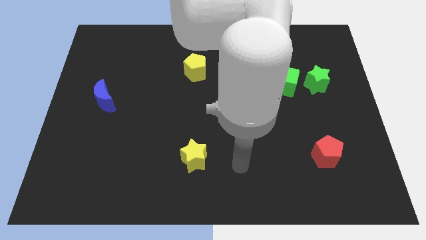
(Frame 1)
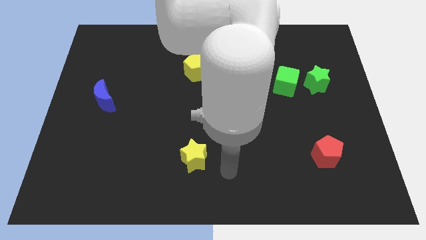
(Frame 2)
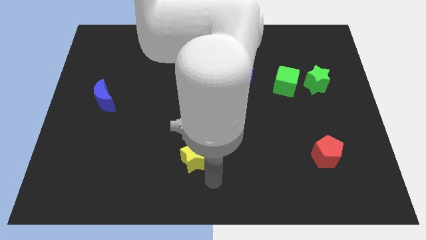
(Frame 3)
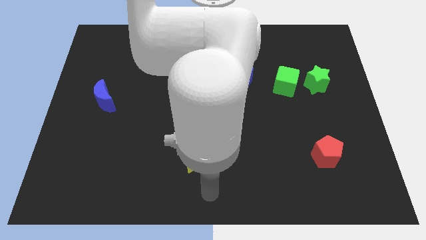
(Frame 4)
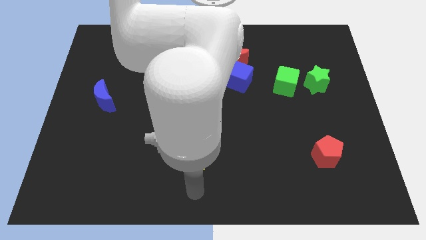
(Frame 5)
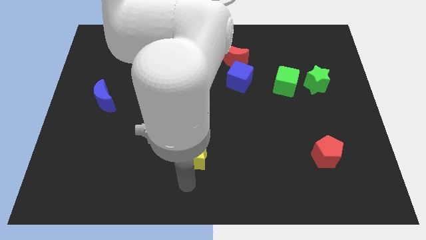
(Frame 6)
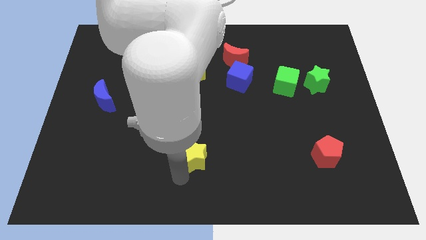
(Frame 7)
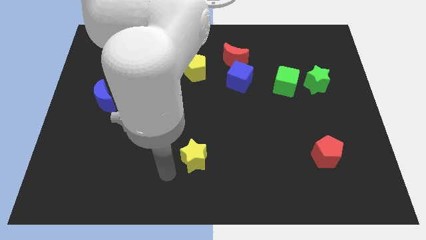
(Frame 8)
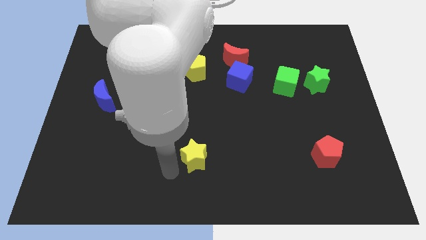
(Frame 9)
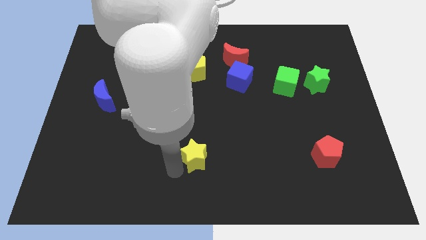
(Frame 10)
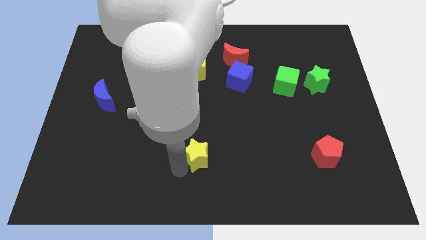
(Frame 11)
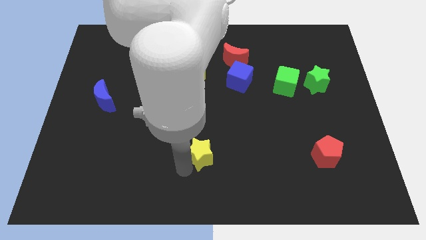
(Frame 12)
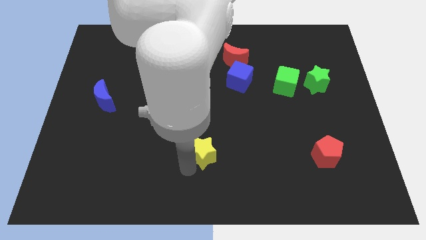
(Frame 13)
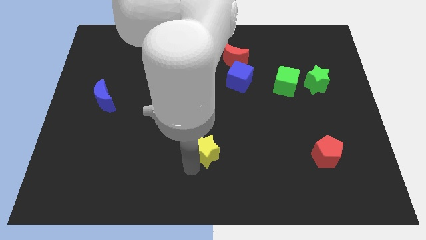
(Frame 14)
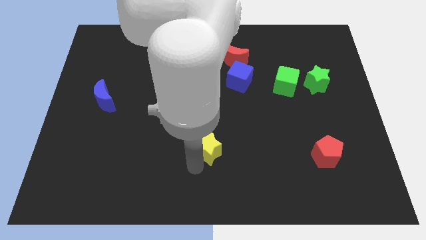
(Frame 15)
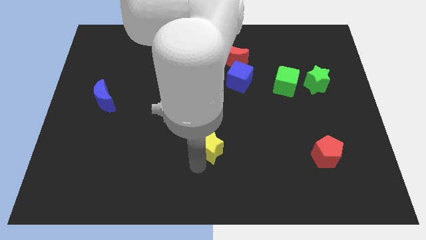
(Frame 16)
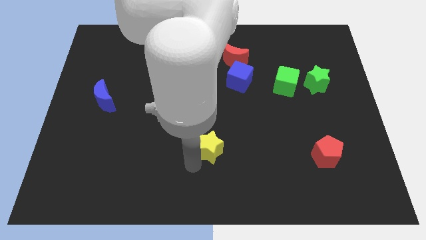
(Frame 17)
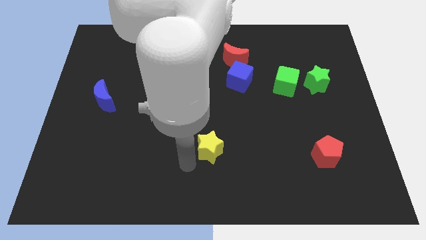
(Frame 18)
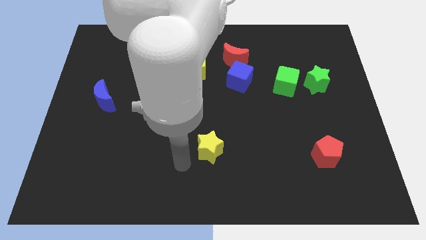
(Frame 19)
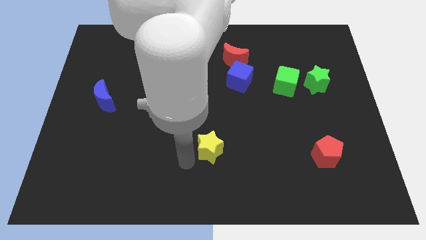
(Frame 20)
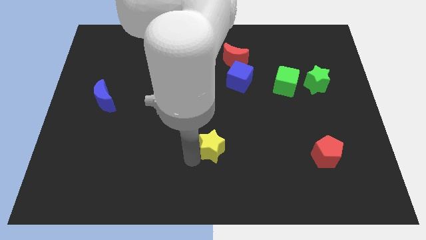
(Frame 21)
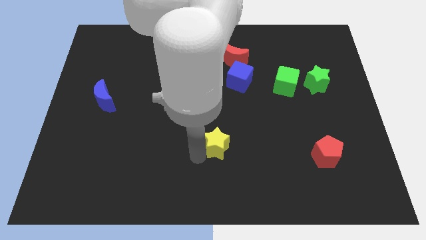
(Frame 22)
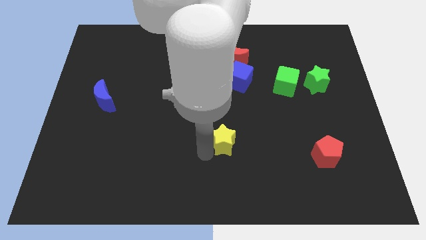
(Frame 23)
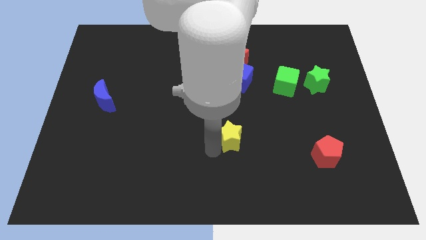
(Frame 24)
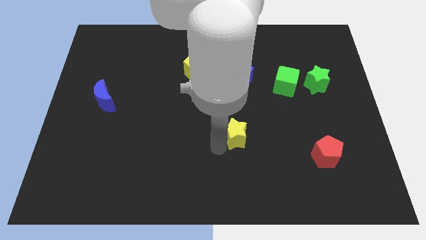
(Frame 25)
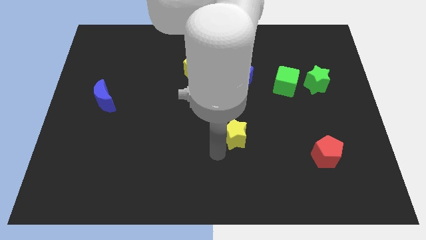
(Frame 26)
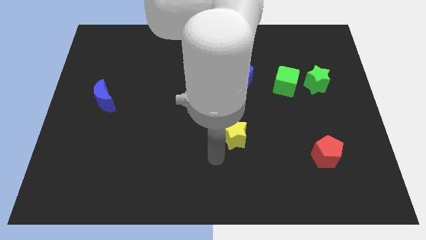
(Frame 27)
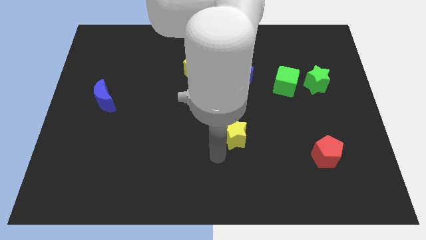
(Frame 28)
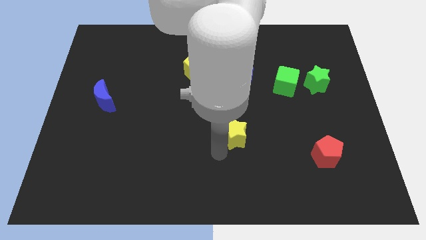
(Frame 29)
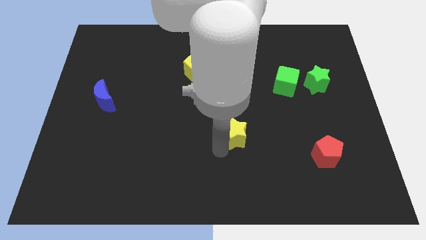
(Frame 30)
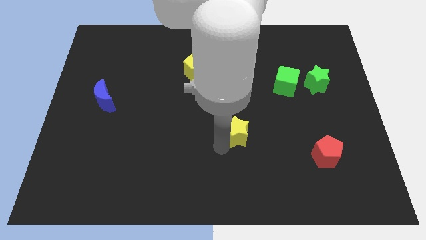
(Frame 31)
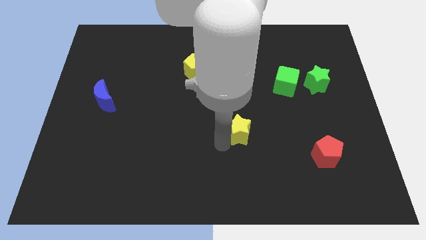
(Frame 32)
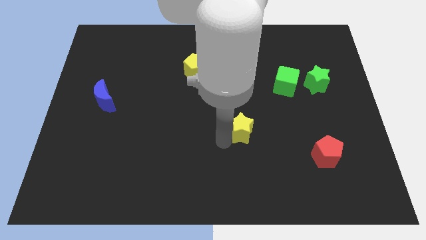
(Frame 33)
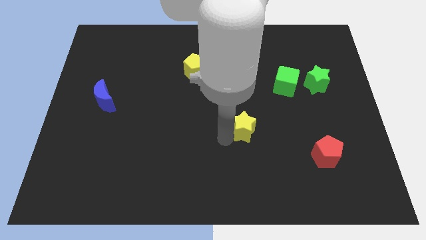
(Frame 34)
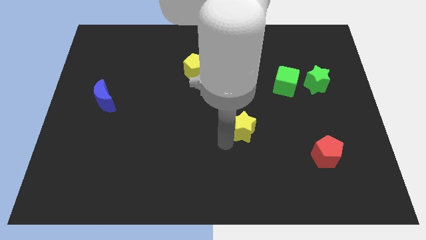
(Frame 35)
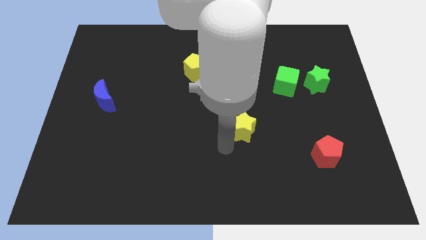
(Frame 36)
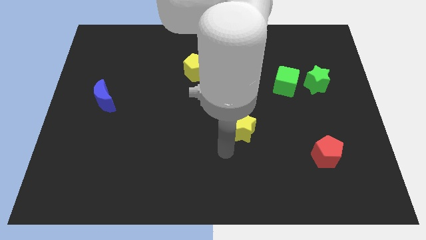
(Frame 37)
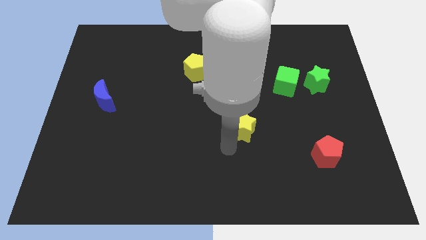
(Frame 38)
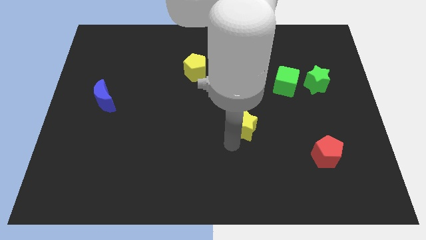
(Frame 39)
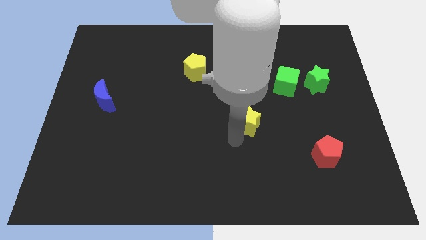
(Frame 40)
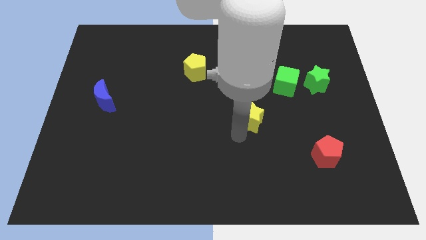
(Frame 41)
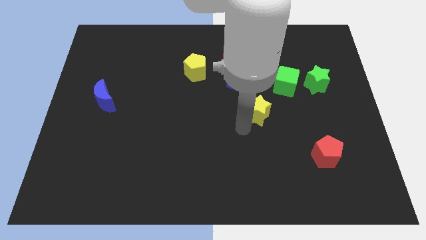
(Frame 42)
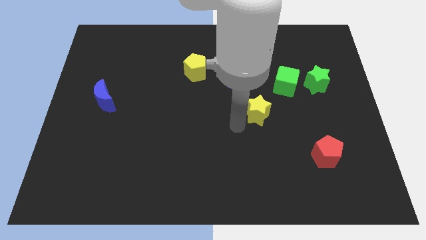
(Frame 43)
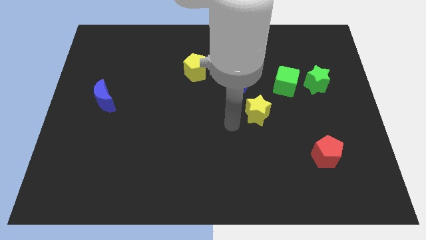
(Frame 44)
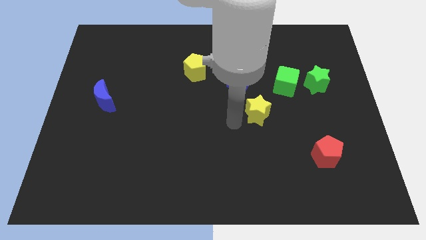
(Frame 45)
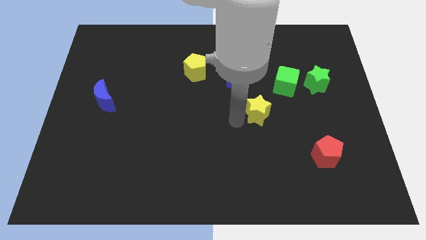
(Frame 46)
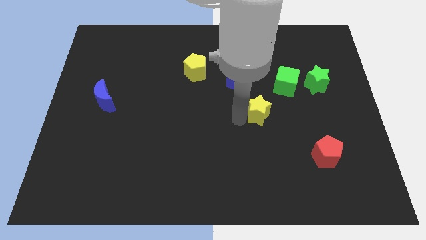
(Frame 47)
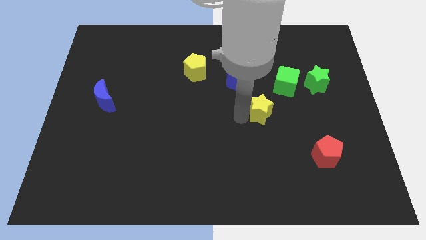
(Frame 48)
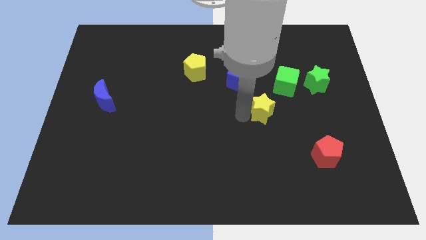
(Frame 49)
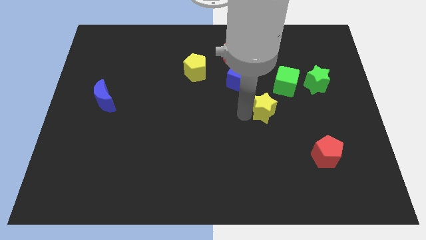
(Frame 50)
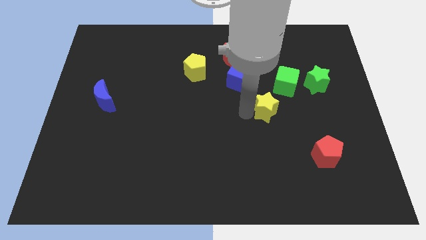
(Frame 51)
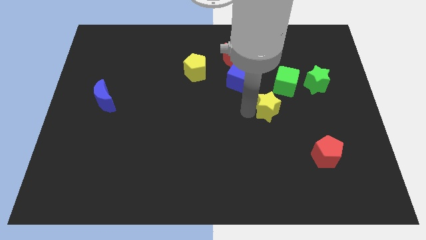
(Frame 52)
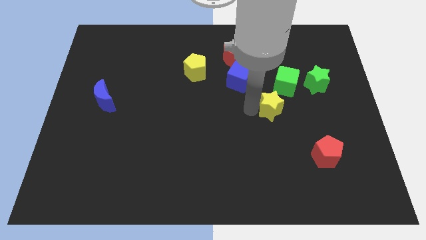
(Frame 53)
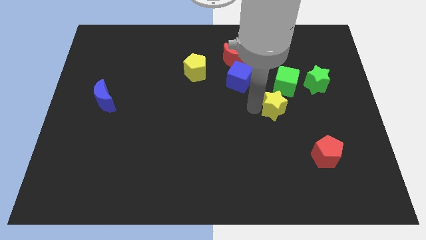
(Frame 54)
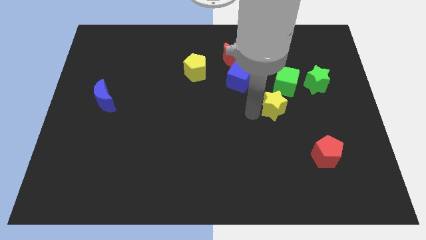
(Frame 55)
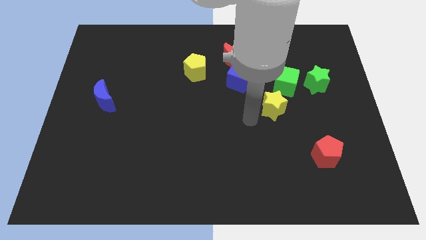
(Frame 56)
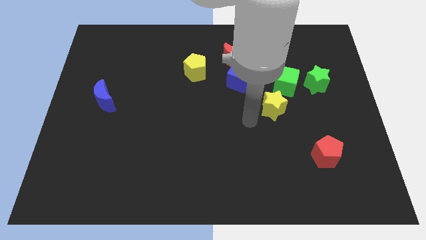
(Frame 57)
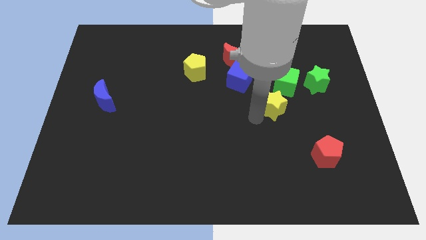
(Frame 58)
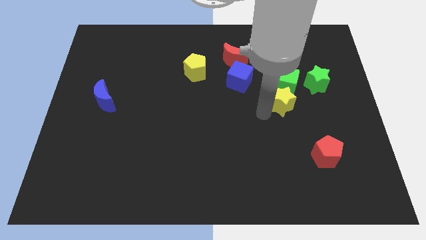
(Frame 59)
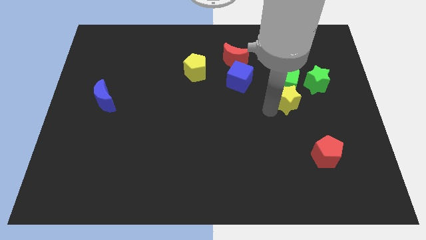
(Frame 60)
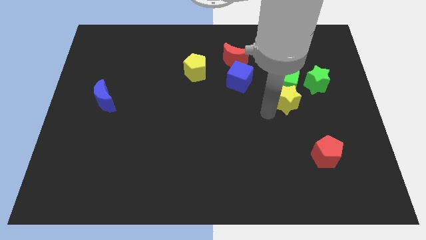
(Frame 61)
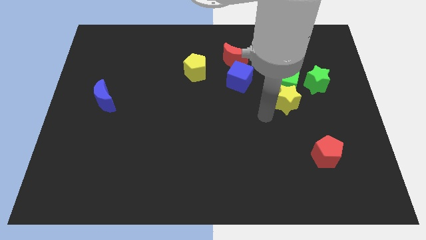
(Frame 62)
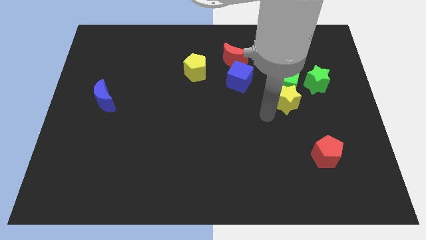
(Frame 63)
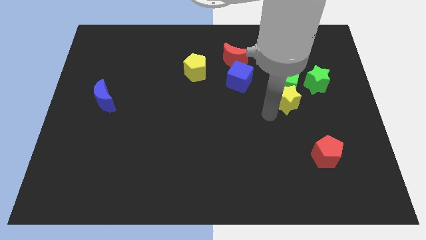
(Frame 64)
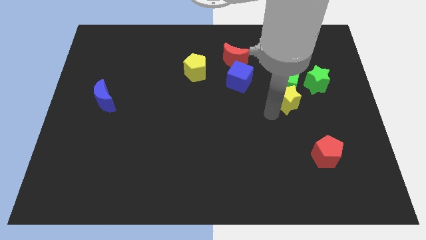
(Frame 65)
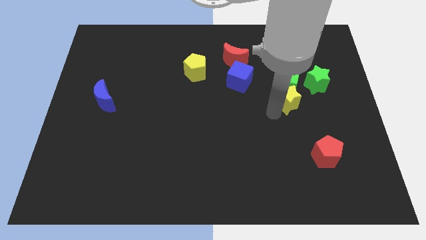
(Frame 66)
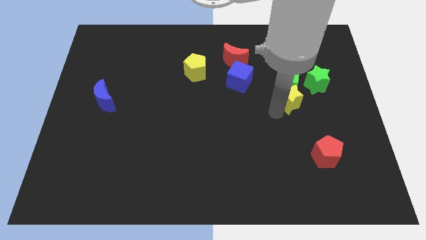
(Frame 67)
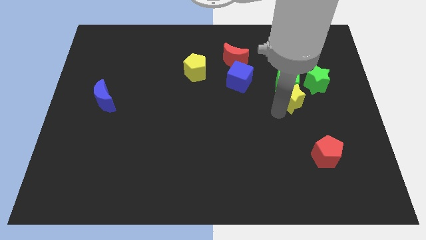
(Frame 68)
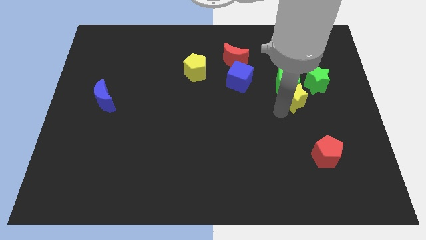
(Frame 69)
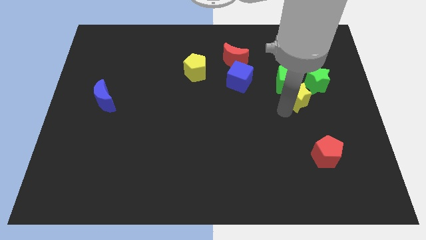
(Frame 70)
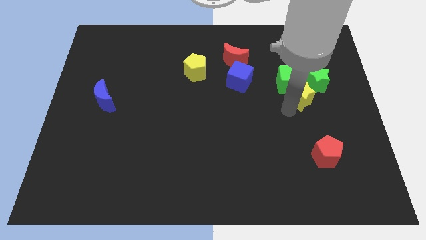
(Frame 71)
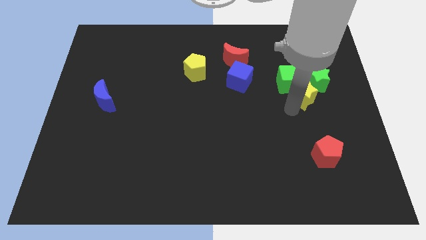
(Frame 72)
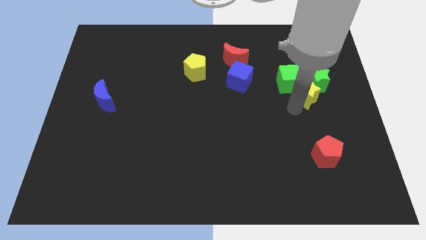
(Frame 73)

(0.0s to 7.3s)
push the yellow star close to the green star

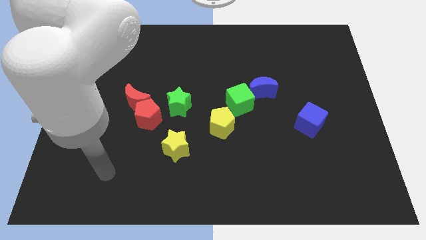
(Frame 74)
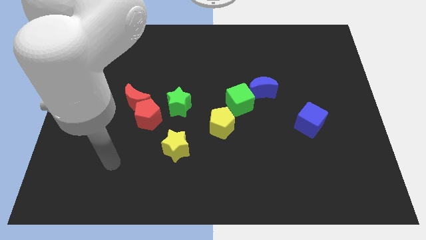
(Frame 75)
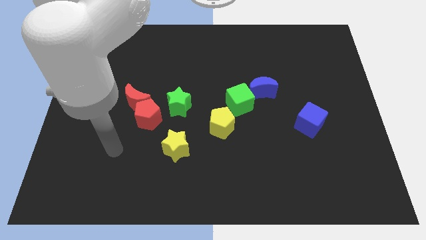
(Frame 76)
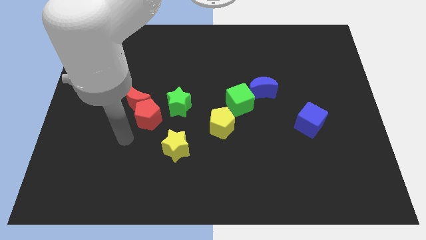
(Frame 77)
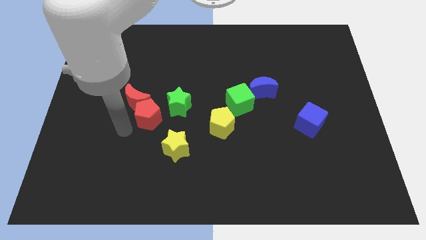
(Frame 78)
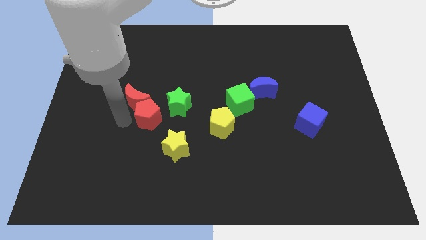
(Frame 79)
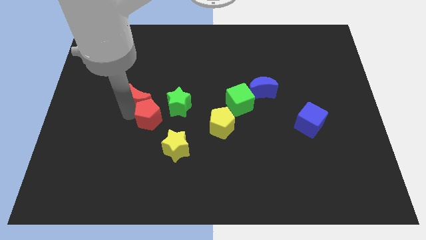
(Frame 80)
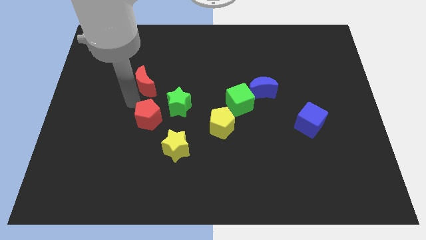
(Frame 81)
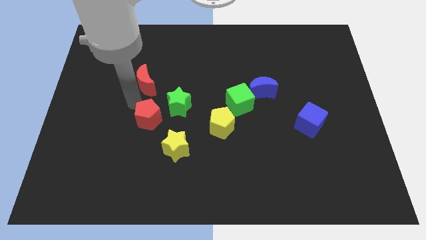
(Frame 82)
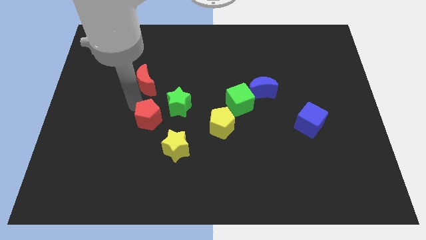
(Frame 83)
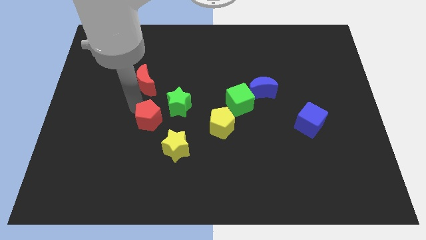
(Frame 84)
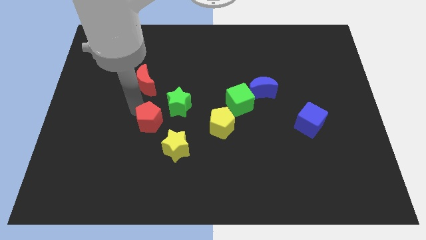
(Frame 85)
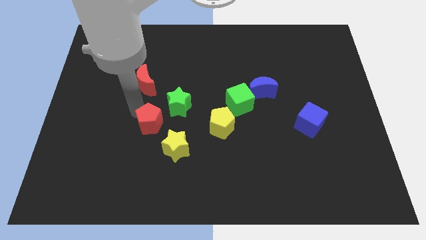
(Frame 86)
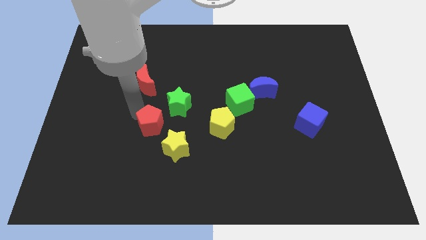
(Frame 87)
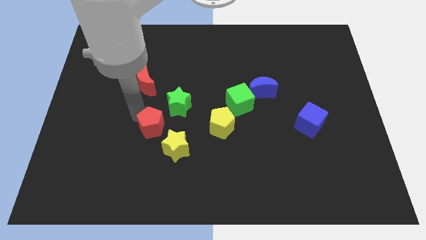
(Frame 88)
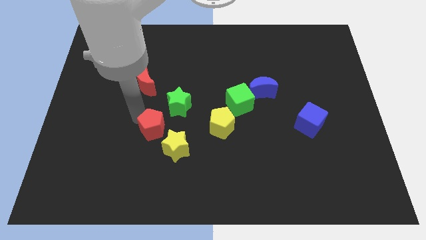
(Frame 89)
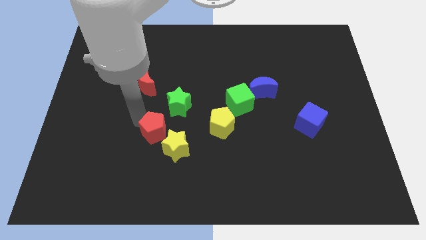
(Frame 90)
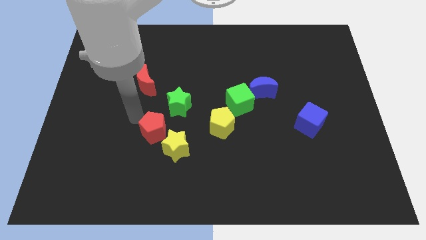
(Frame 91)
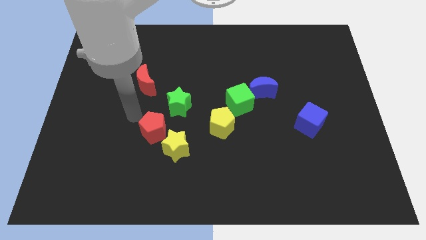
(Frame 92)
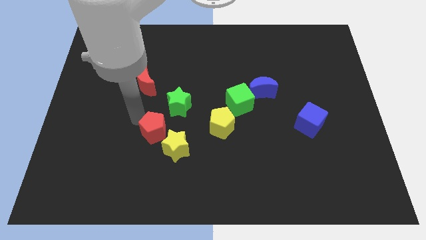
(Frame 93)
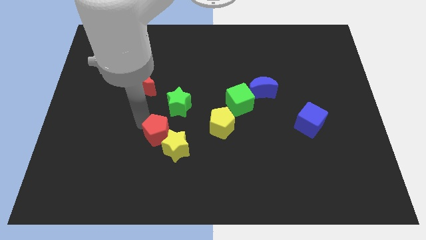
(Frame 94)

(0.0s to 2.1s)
slide the red pentagon next to the yellow star
